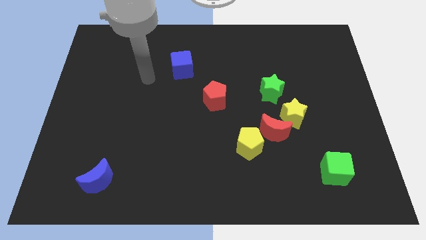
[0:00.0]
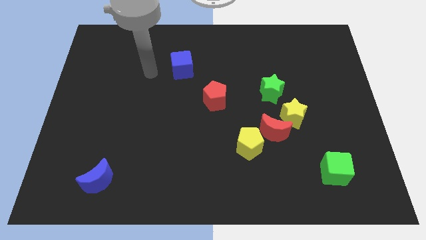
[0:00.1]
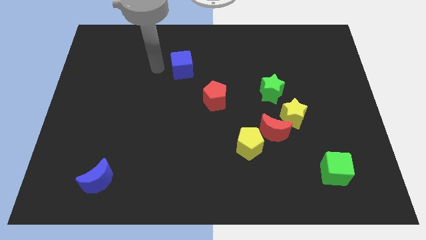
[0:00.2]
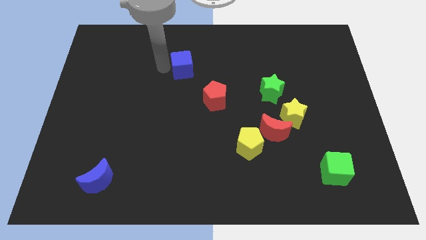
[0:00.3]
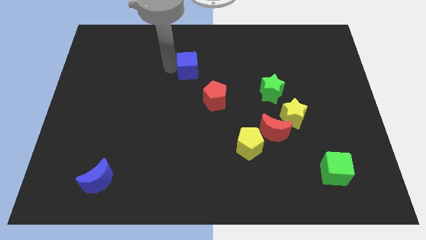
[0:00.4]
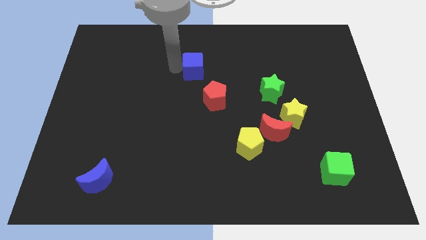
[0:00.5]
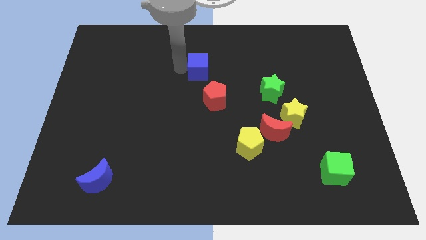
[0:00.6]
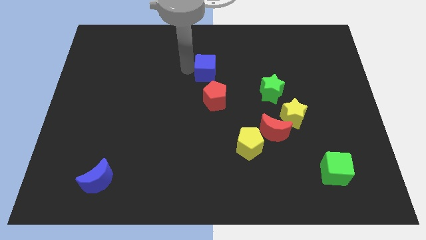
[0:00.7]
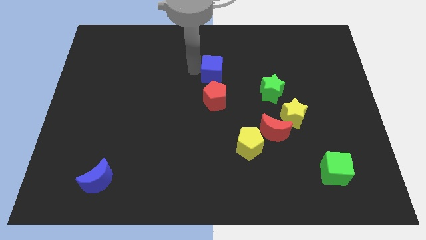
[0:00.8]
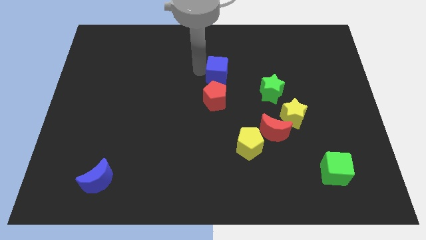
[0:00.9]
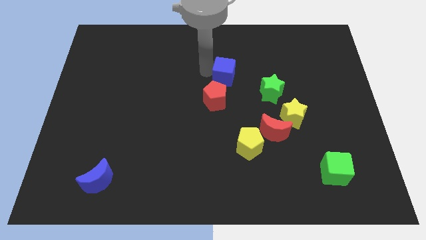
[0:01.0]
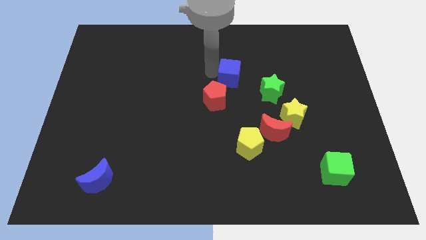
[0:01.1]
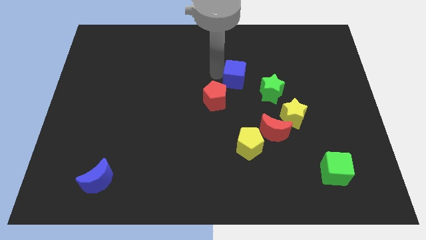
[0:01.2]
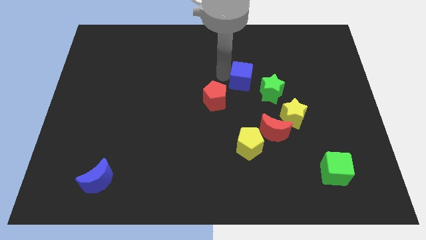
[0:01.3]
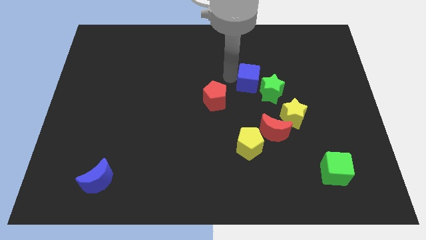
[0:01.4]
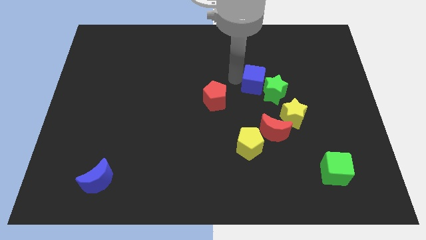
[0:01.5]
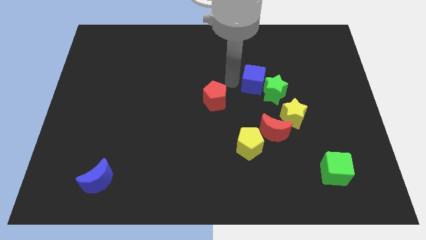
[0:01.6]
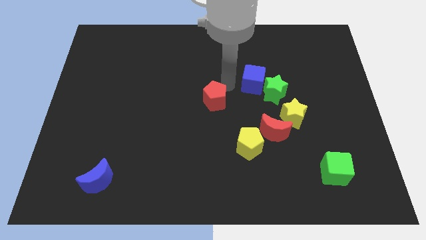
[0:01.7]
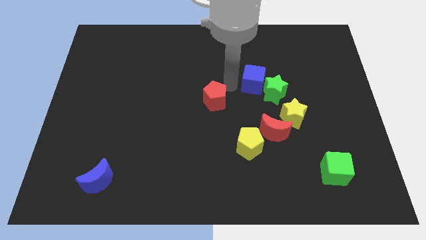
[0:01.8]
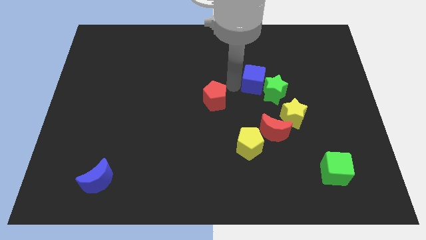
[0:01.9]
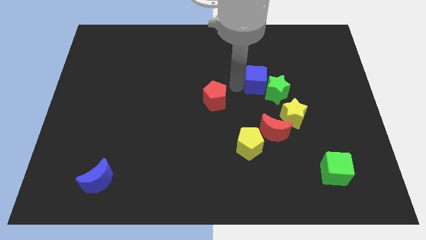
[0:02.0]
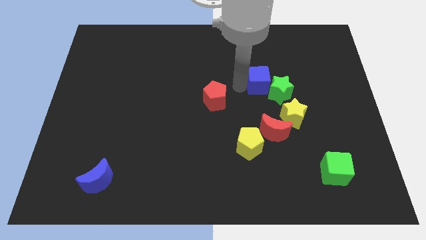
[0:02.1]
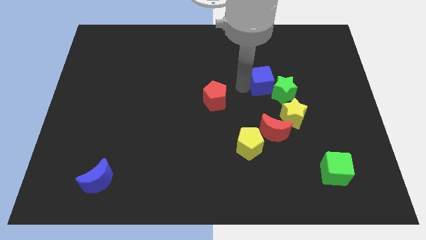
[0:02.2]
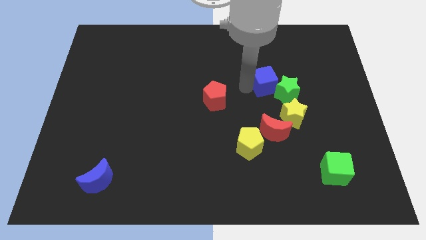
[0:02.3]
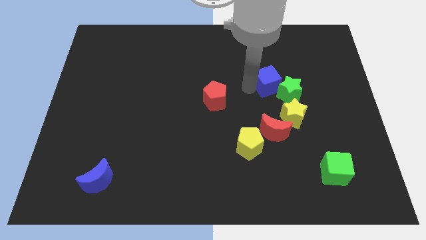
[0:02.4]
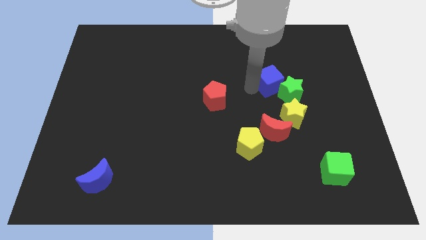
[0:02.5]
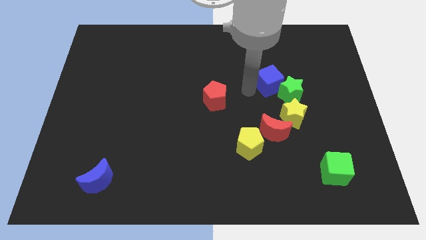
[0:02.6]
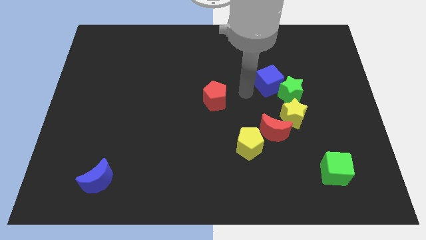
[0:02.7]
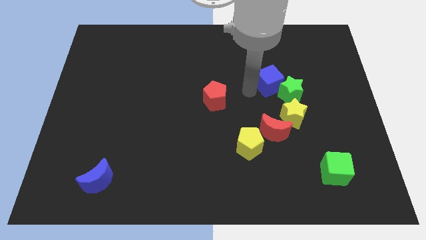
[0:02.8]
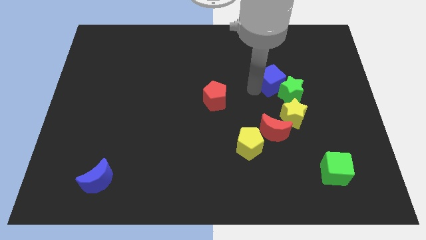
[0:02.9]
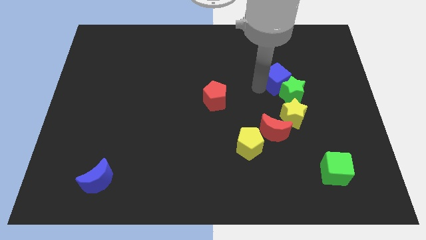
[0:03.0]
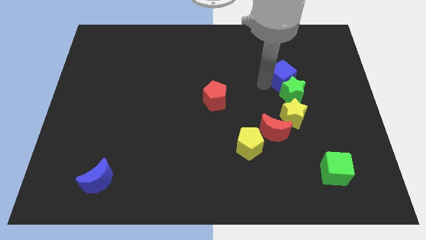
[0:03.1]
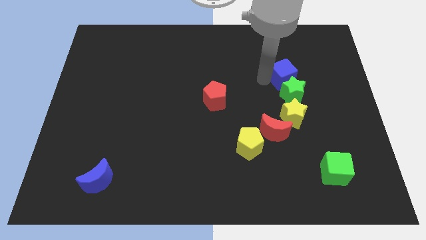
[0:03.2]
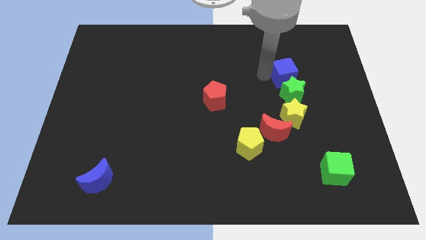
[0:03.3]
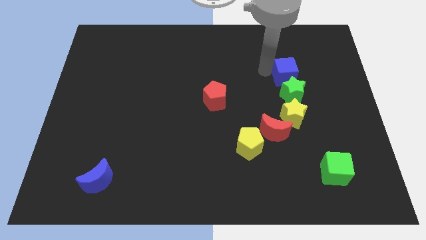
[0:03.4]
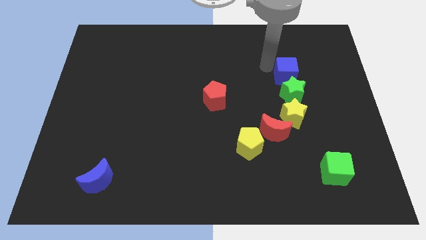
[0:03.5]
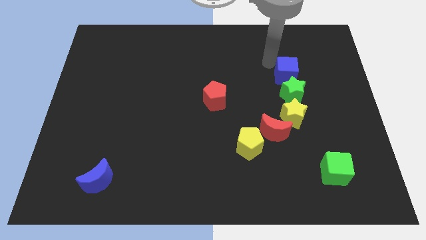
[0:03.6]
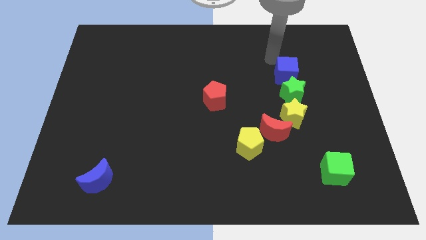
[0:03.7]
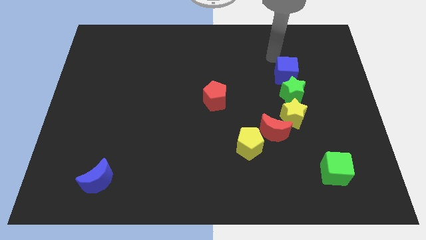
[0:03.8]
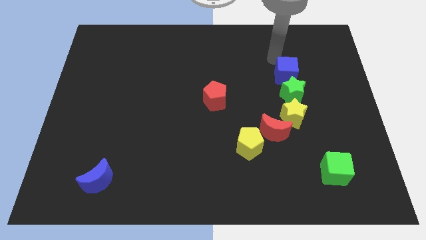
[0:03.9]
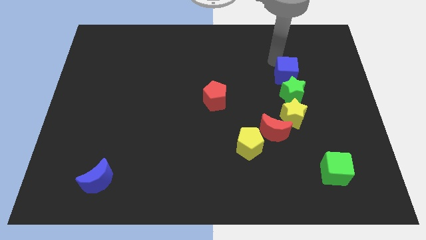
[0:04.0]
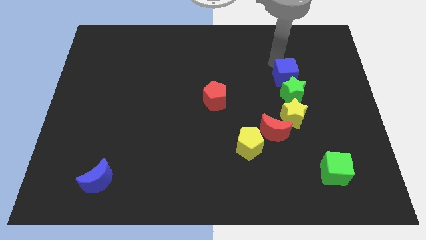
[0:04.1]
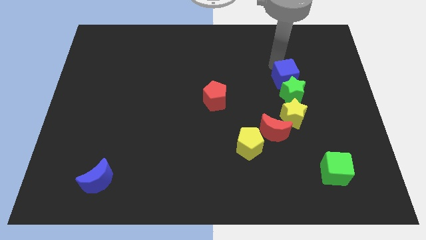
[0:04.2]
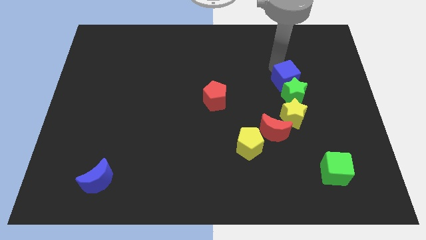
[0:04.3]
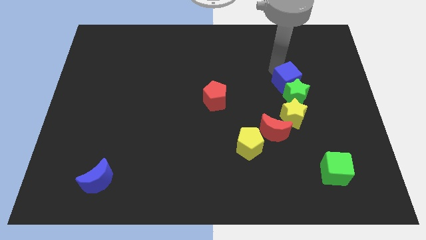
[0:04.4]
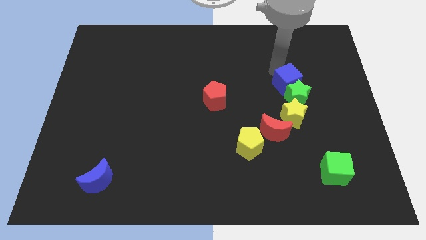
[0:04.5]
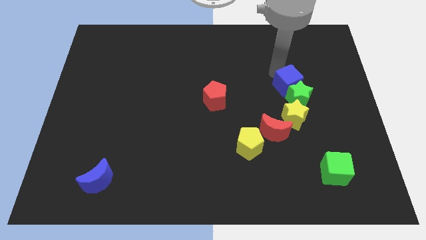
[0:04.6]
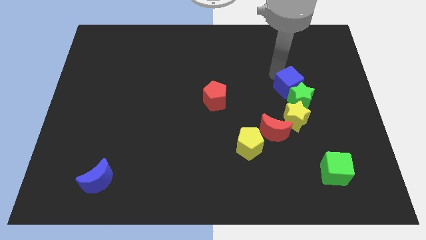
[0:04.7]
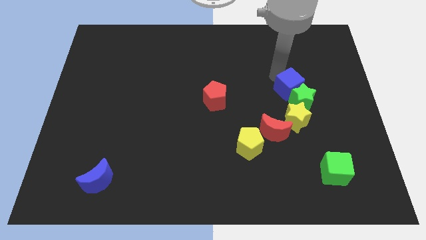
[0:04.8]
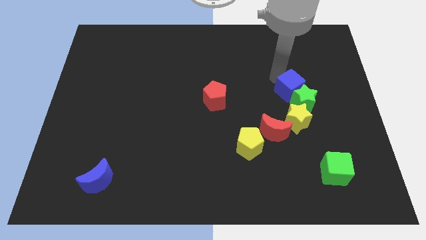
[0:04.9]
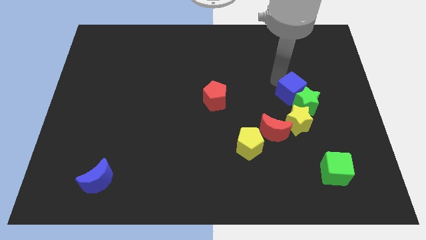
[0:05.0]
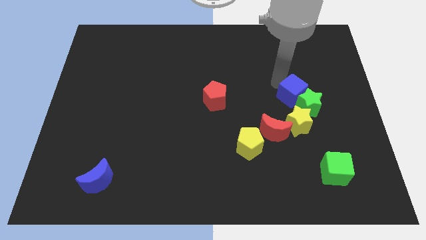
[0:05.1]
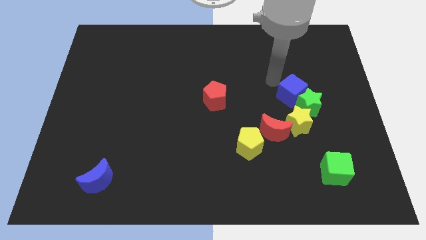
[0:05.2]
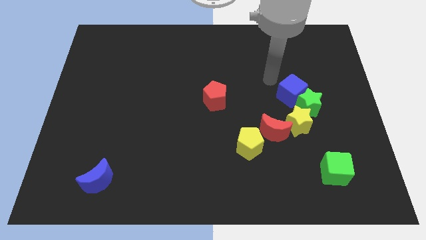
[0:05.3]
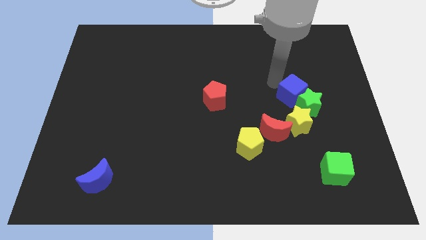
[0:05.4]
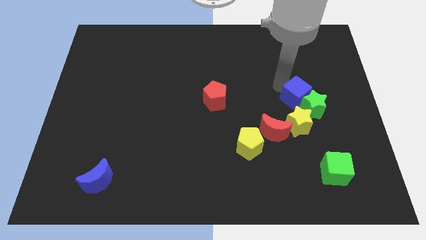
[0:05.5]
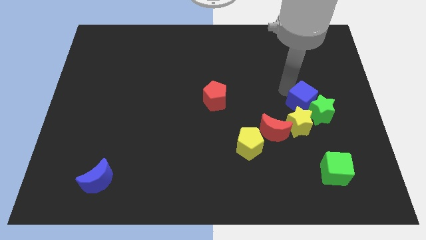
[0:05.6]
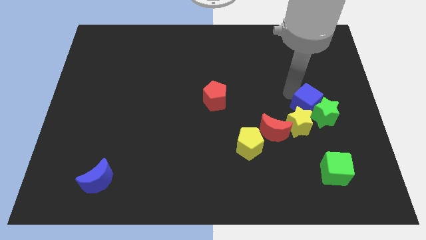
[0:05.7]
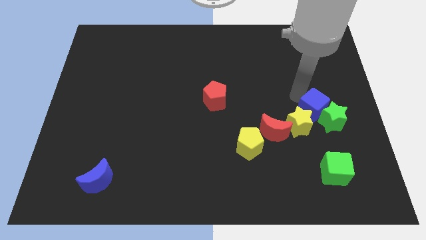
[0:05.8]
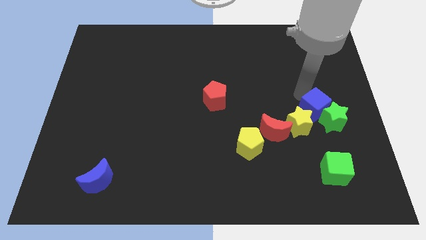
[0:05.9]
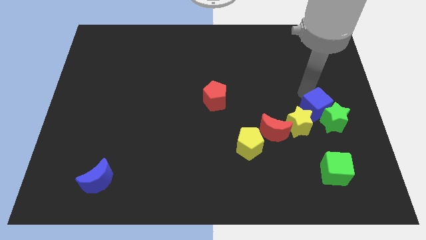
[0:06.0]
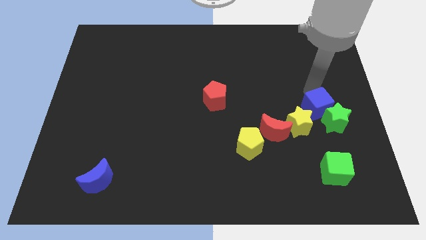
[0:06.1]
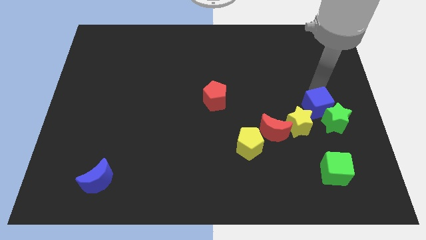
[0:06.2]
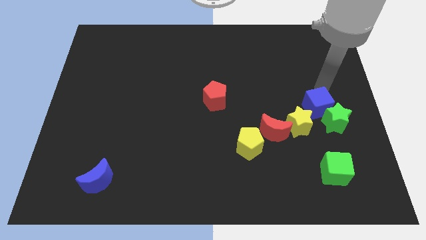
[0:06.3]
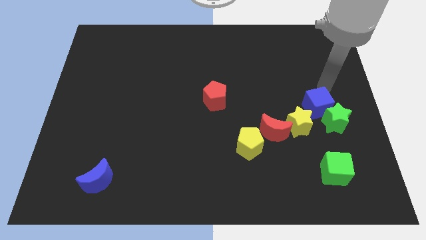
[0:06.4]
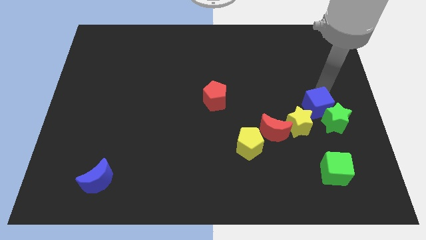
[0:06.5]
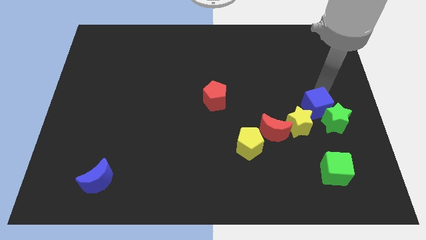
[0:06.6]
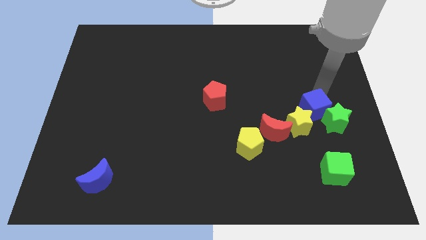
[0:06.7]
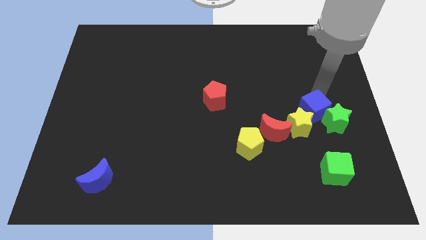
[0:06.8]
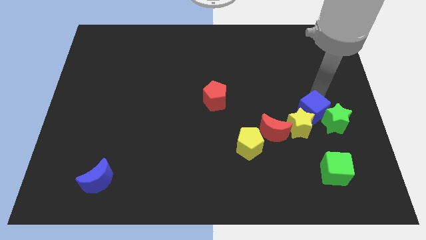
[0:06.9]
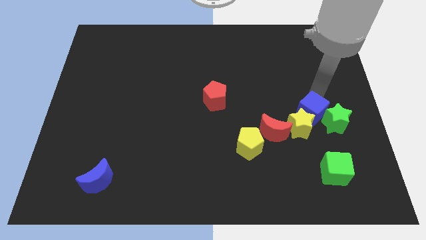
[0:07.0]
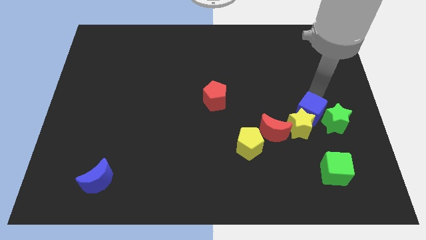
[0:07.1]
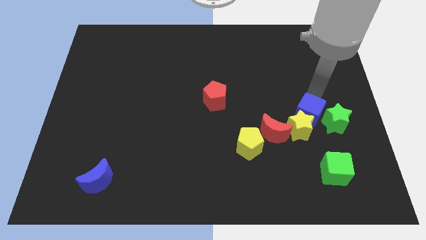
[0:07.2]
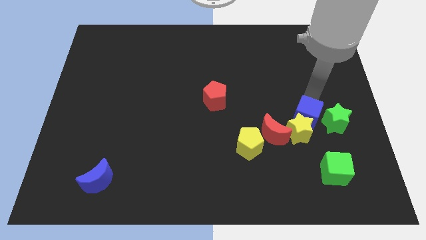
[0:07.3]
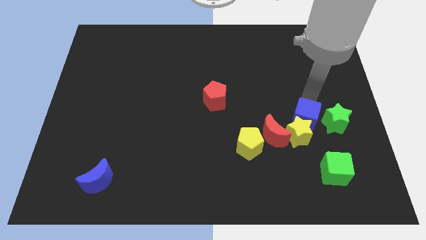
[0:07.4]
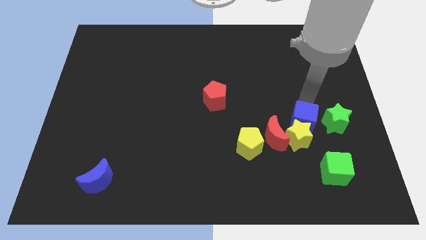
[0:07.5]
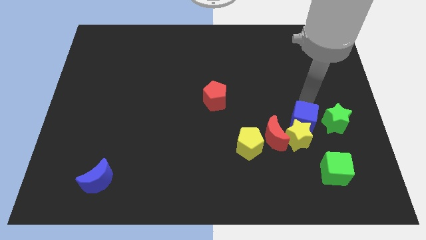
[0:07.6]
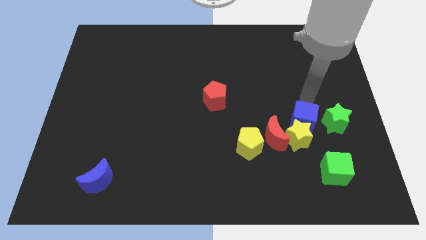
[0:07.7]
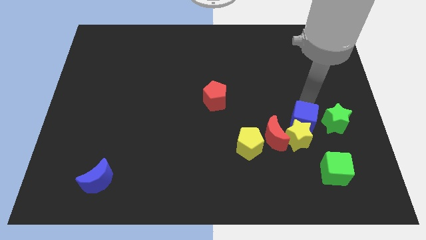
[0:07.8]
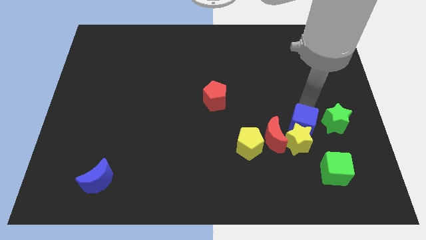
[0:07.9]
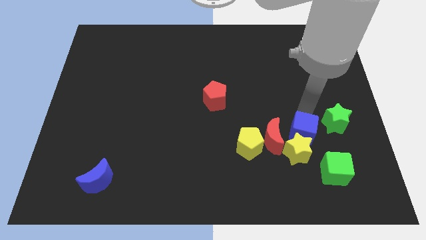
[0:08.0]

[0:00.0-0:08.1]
put the blue cube right of the yellow pentagon
